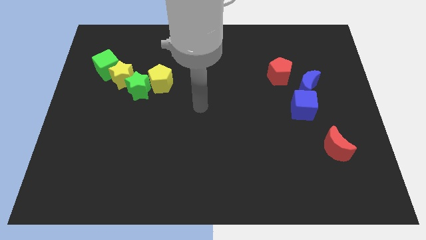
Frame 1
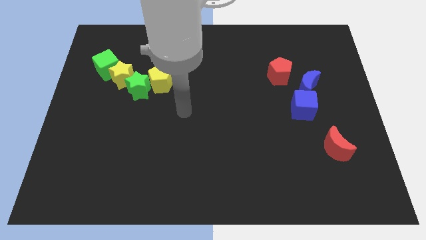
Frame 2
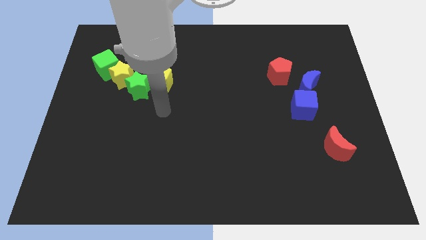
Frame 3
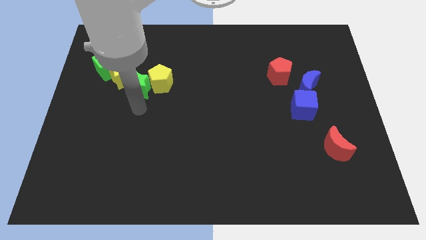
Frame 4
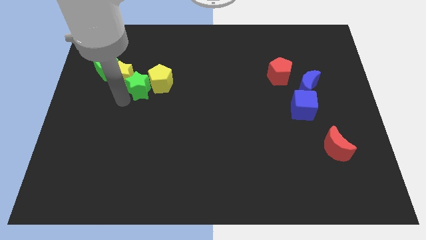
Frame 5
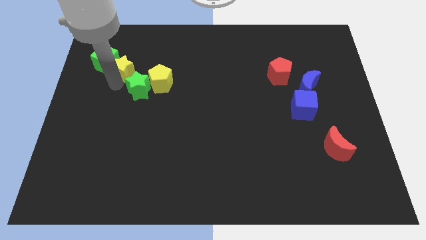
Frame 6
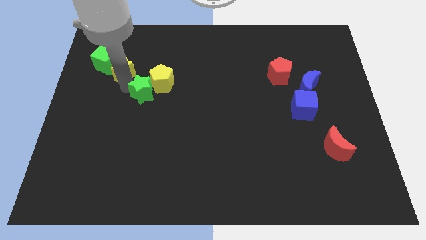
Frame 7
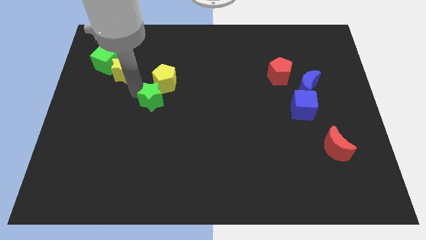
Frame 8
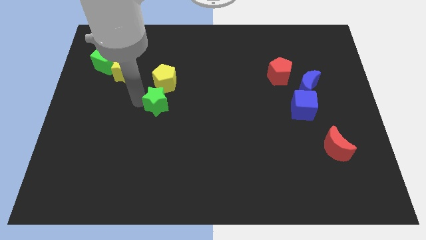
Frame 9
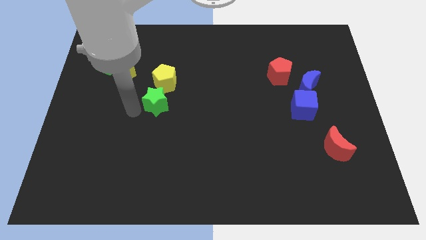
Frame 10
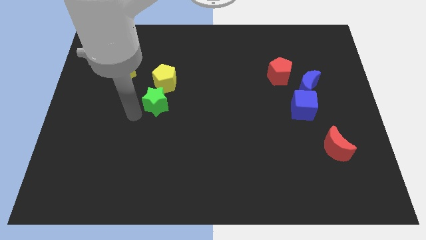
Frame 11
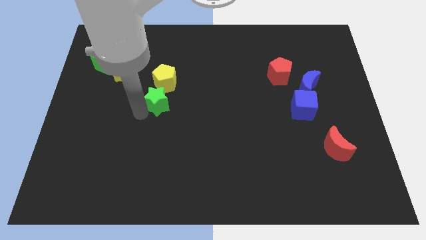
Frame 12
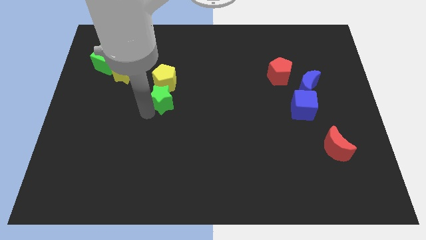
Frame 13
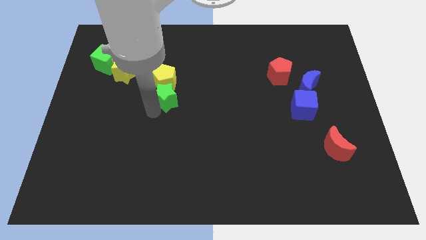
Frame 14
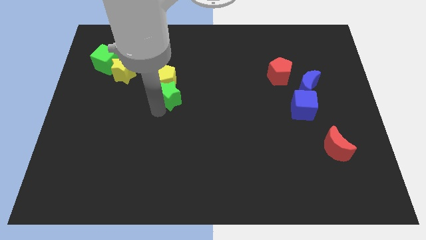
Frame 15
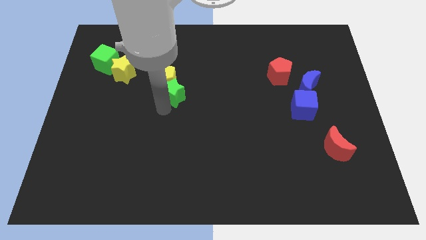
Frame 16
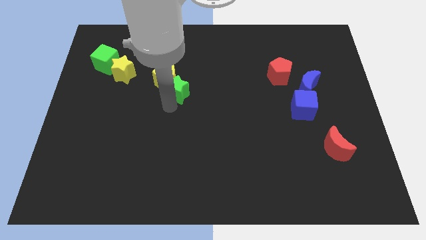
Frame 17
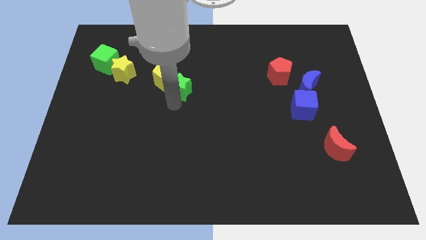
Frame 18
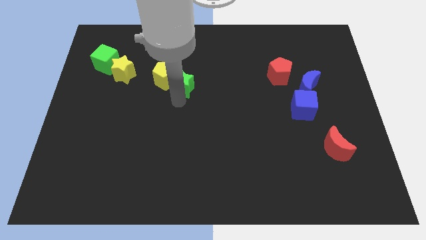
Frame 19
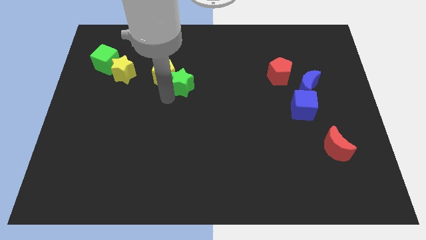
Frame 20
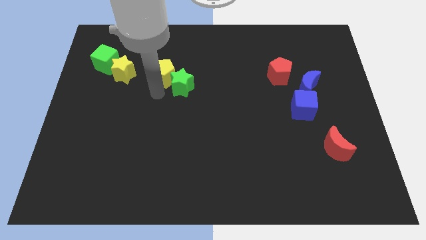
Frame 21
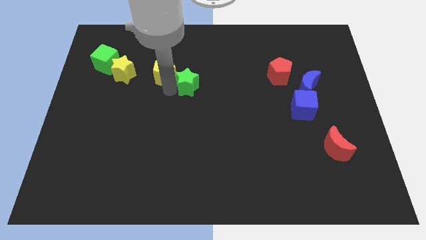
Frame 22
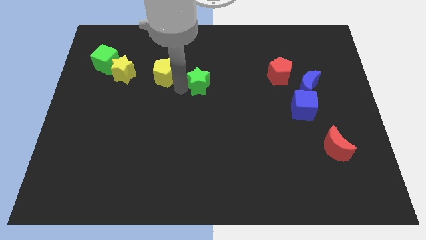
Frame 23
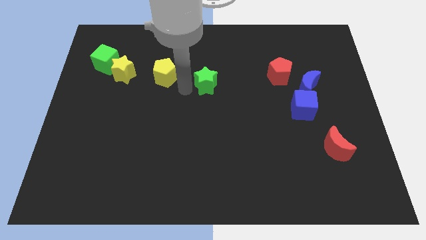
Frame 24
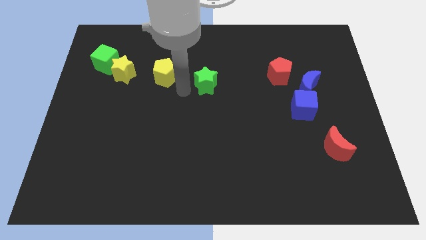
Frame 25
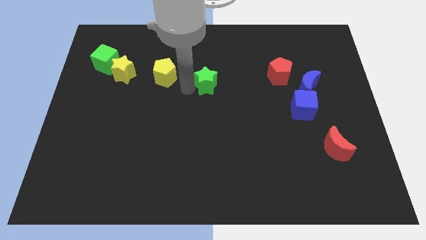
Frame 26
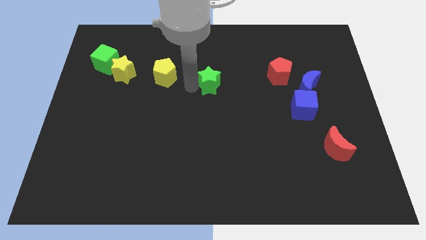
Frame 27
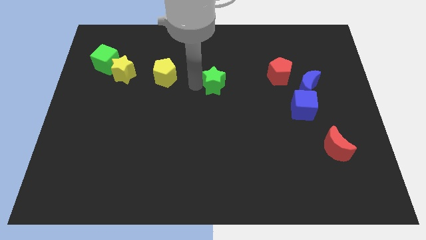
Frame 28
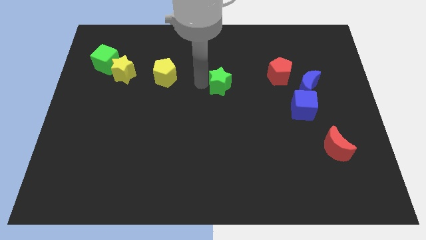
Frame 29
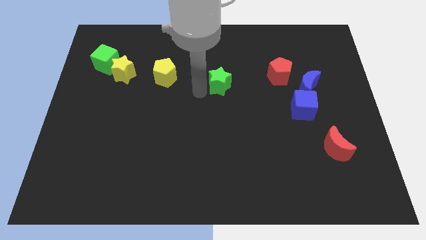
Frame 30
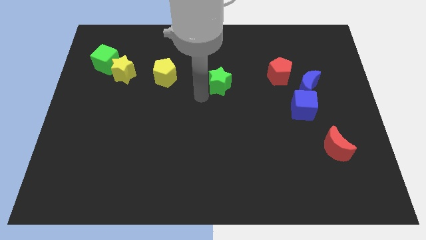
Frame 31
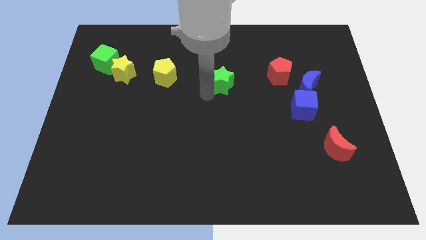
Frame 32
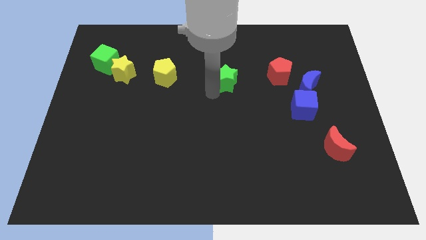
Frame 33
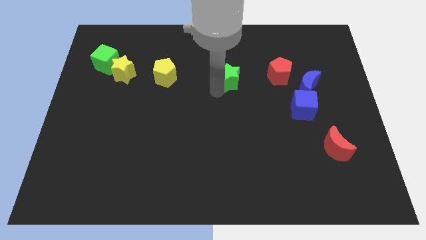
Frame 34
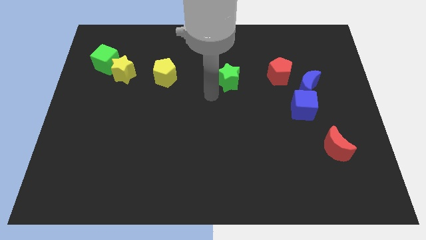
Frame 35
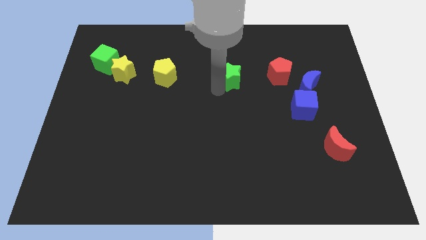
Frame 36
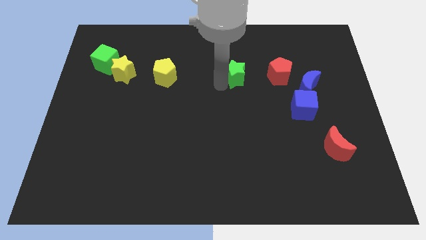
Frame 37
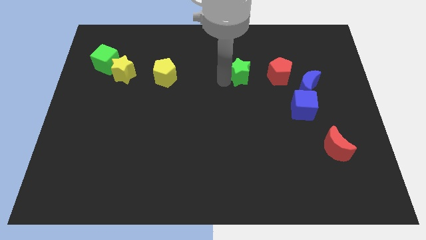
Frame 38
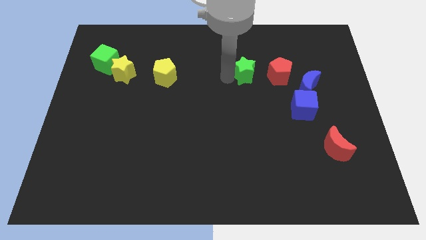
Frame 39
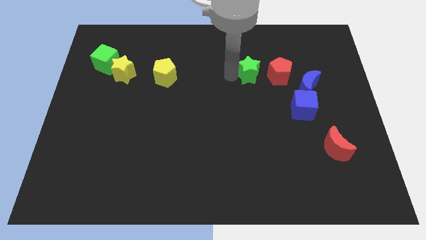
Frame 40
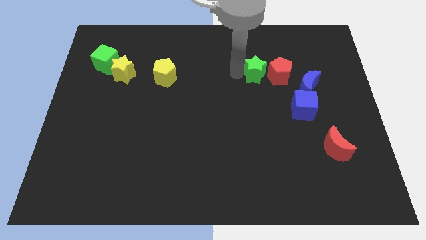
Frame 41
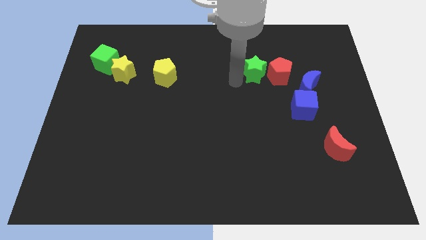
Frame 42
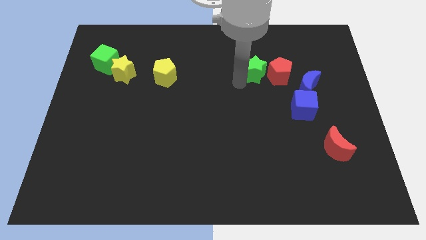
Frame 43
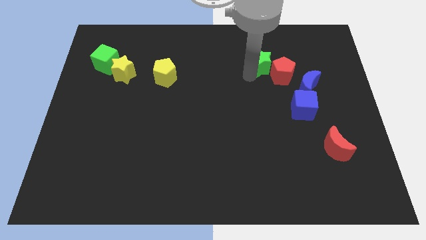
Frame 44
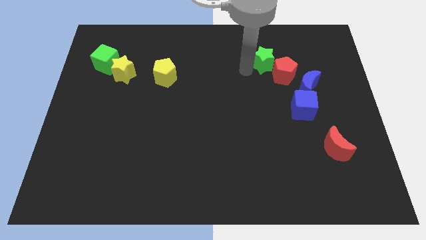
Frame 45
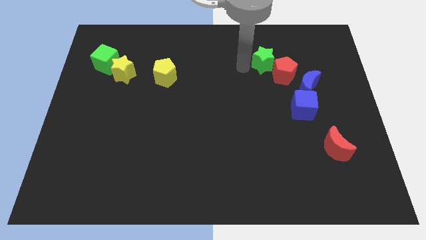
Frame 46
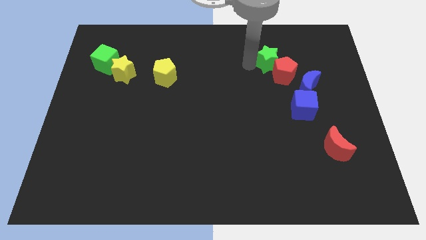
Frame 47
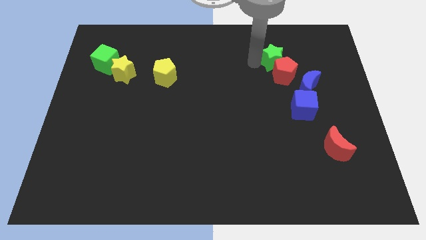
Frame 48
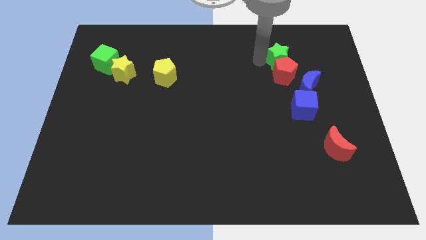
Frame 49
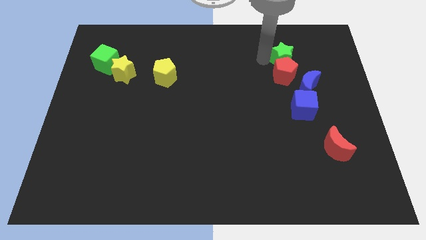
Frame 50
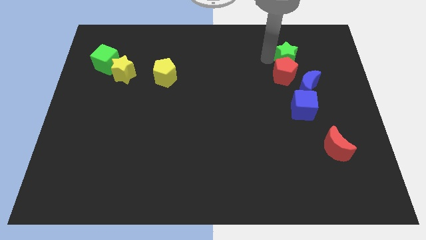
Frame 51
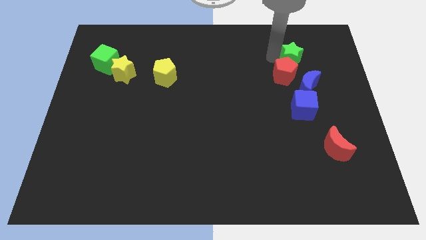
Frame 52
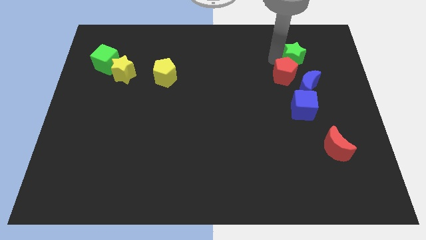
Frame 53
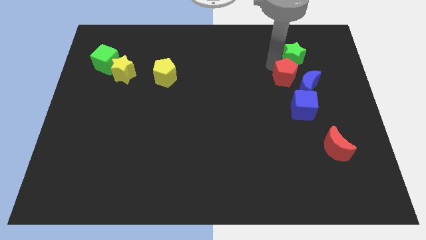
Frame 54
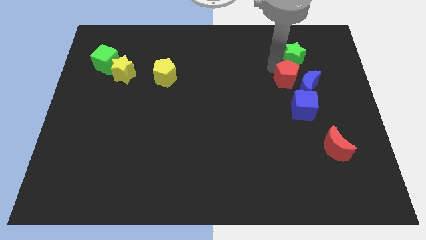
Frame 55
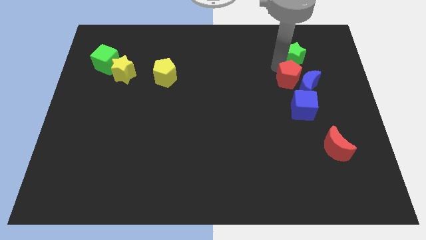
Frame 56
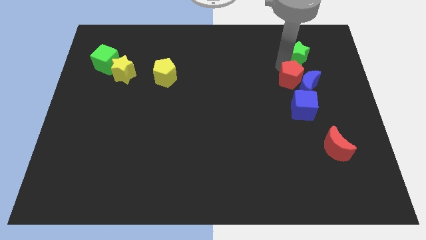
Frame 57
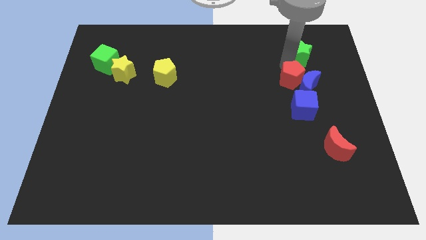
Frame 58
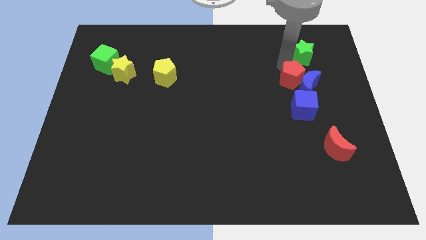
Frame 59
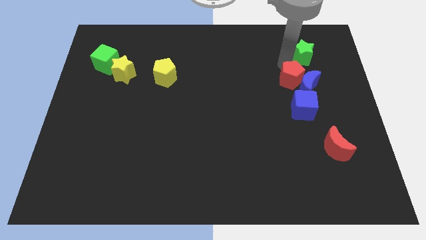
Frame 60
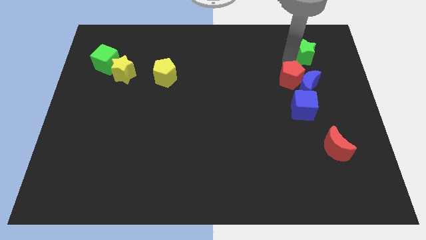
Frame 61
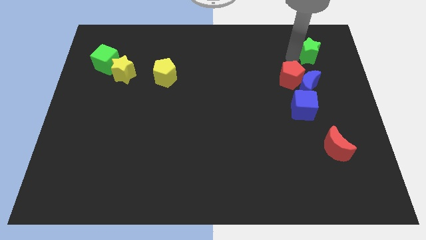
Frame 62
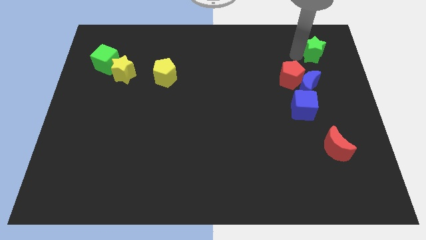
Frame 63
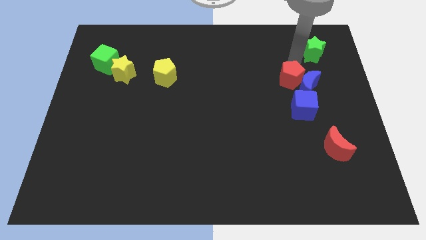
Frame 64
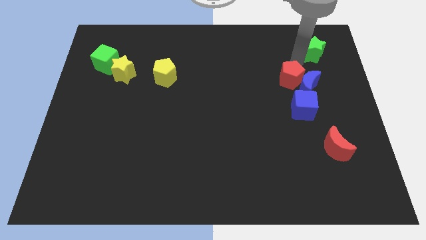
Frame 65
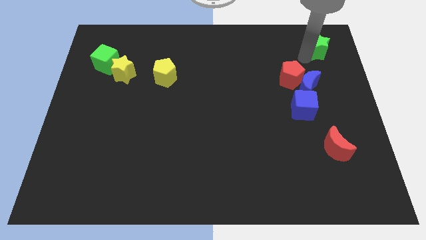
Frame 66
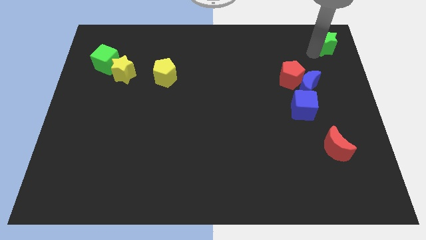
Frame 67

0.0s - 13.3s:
slide the green star to the top right
